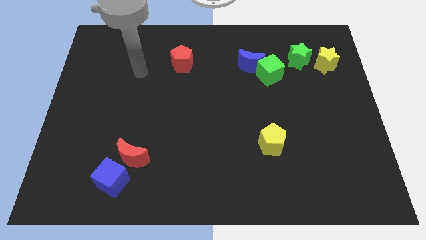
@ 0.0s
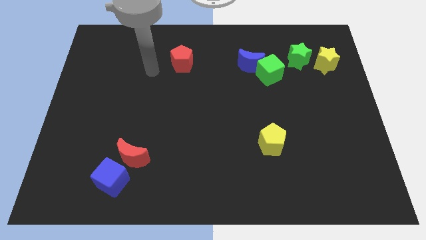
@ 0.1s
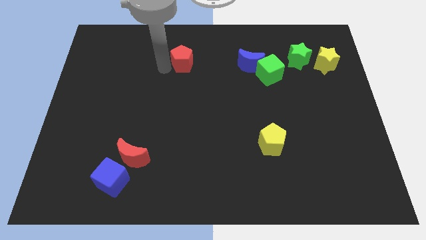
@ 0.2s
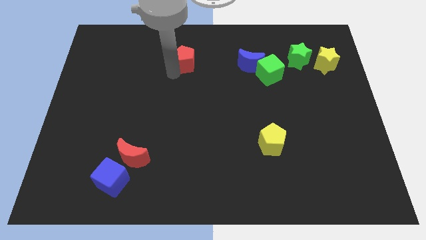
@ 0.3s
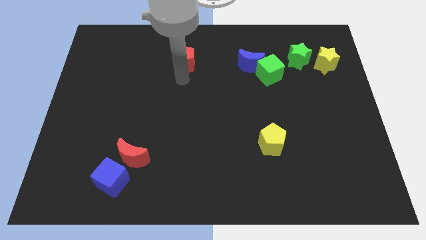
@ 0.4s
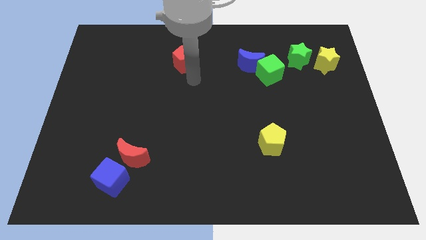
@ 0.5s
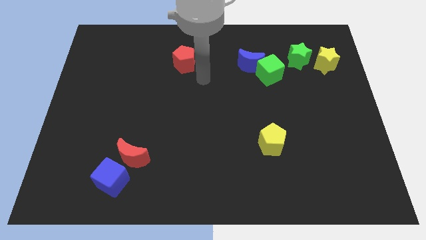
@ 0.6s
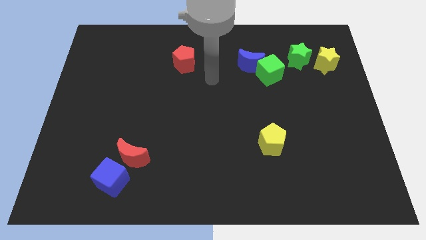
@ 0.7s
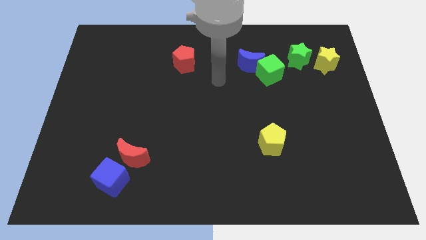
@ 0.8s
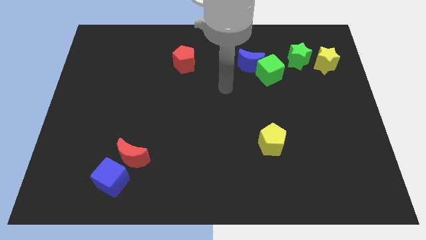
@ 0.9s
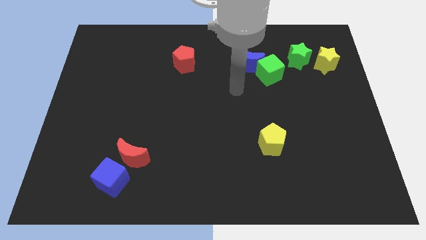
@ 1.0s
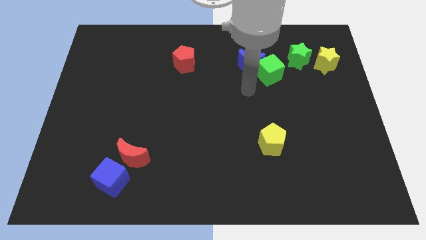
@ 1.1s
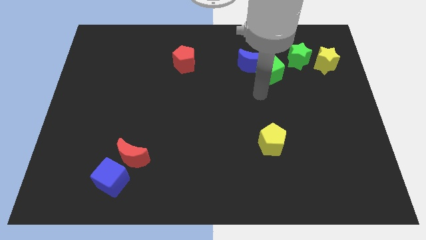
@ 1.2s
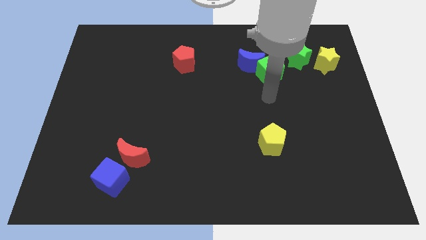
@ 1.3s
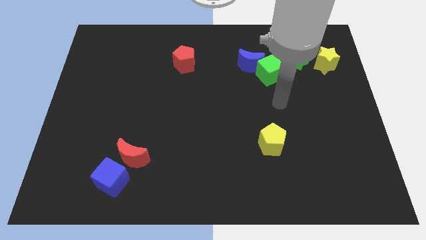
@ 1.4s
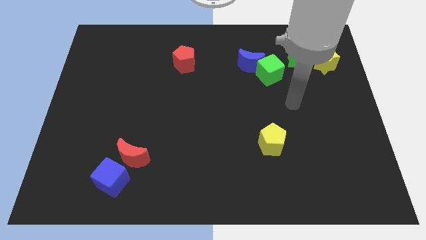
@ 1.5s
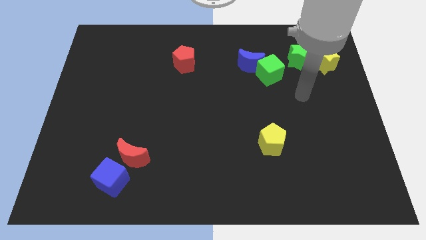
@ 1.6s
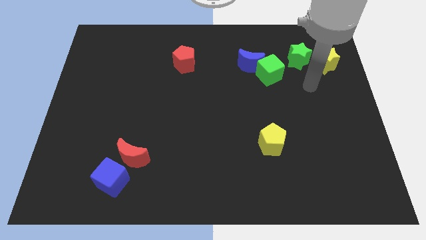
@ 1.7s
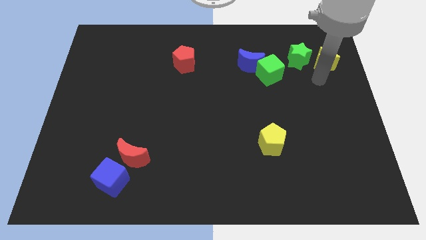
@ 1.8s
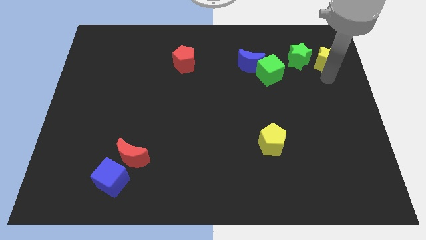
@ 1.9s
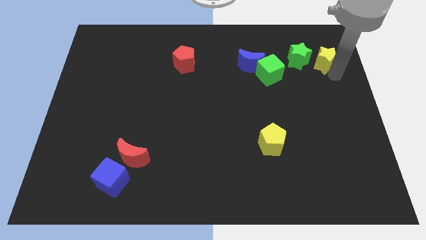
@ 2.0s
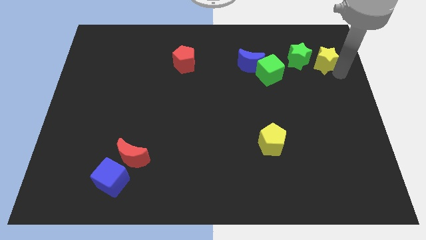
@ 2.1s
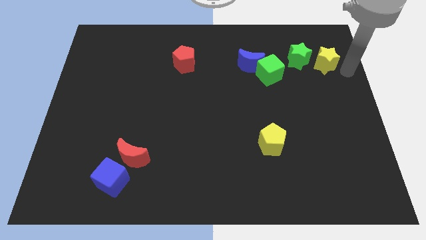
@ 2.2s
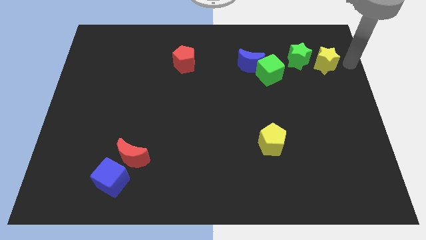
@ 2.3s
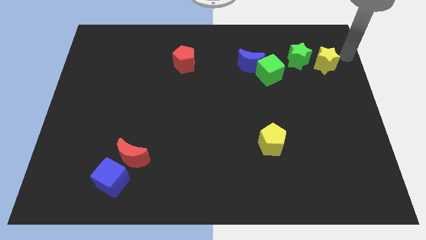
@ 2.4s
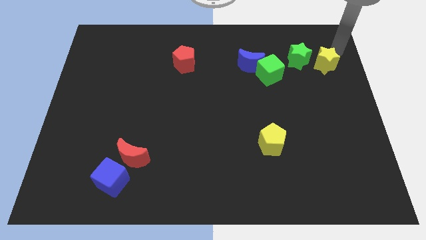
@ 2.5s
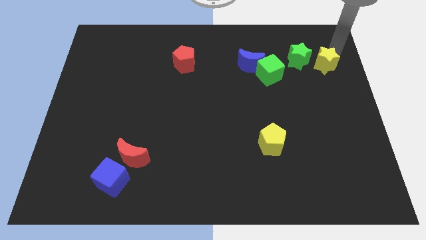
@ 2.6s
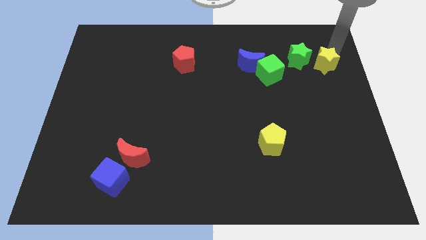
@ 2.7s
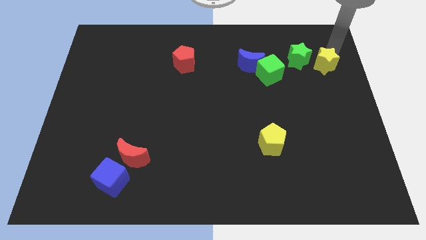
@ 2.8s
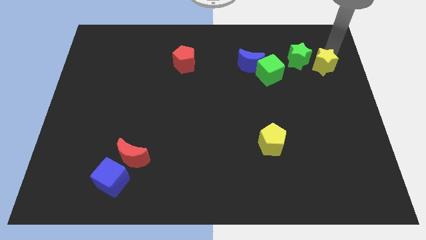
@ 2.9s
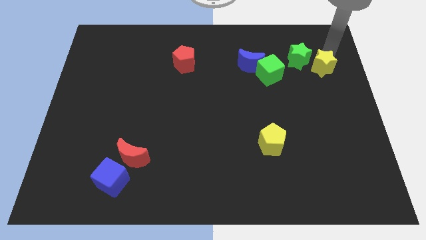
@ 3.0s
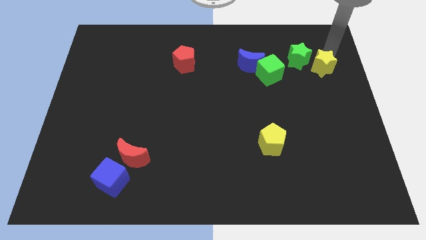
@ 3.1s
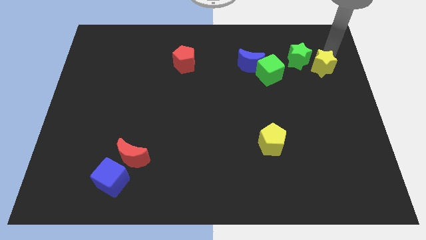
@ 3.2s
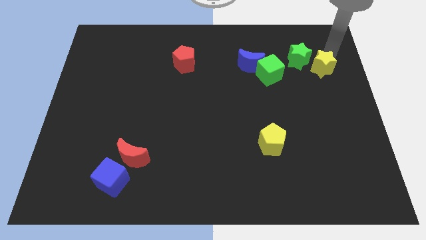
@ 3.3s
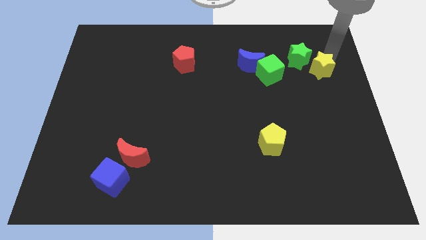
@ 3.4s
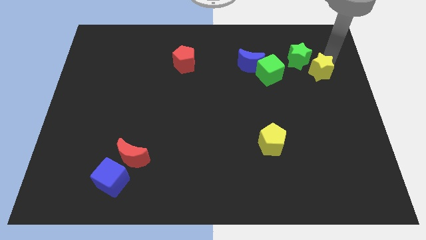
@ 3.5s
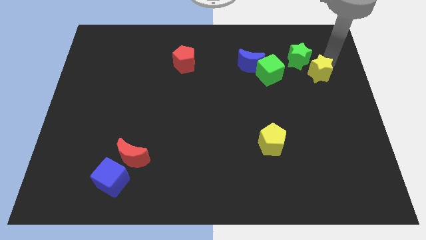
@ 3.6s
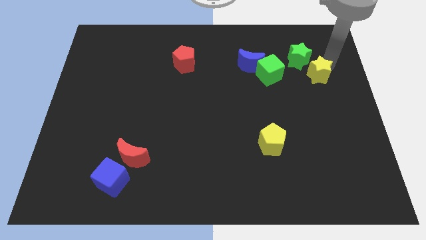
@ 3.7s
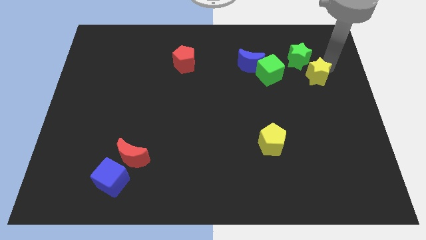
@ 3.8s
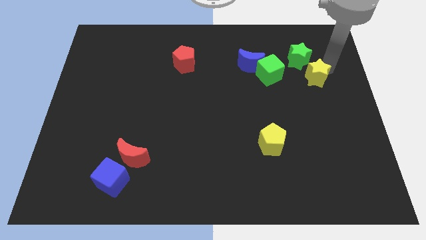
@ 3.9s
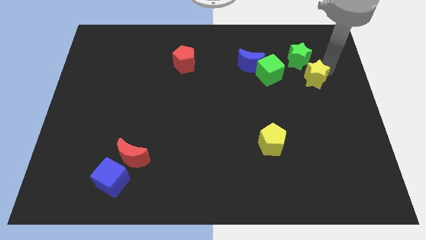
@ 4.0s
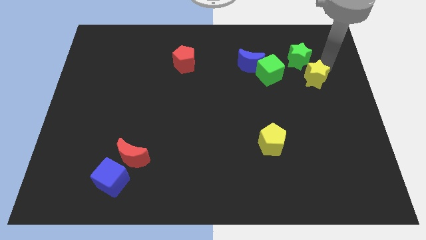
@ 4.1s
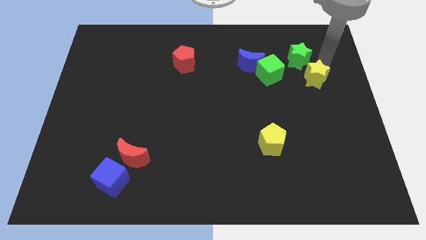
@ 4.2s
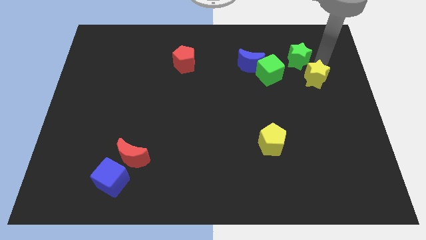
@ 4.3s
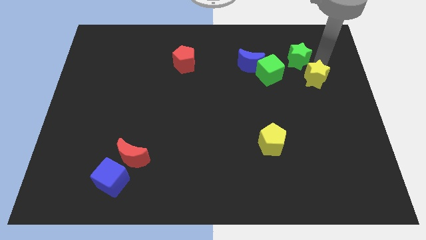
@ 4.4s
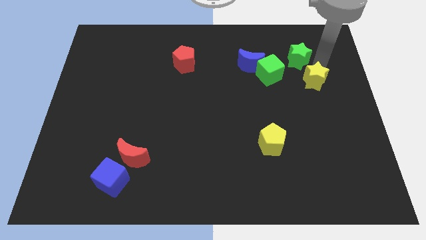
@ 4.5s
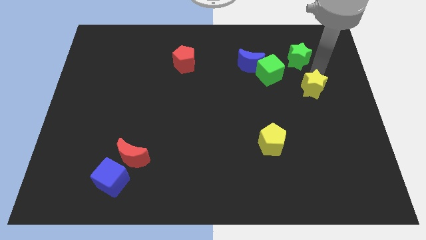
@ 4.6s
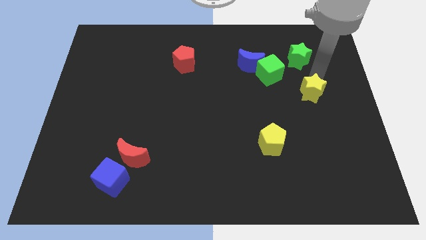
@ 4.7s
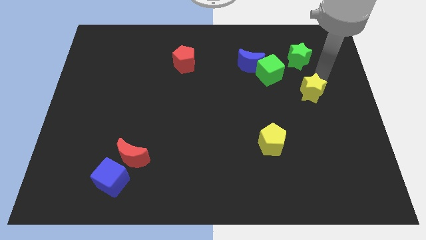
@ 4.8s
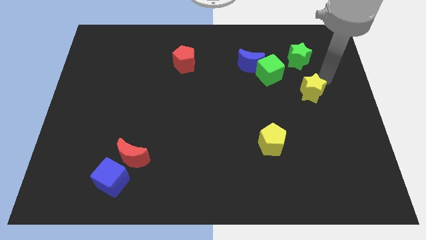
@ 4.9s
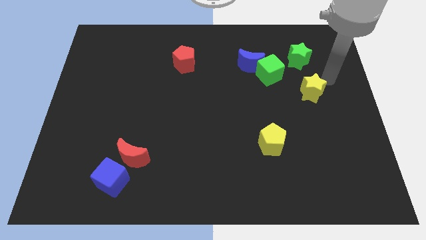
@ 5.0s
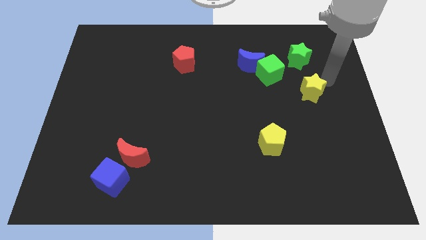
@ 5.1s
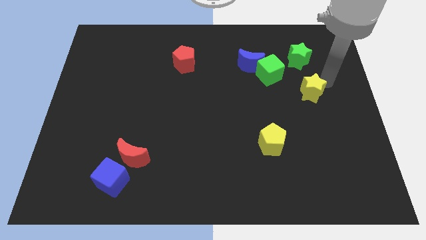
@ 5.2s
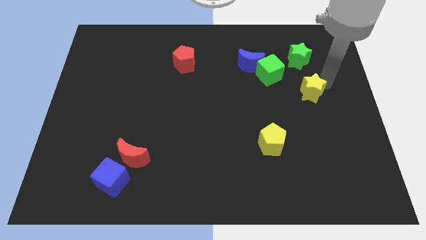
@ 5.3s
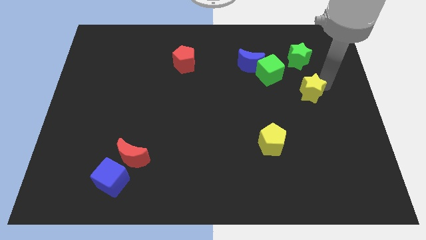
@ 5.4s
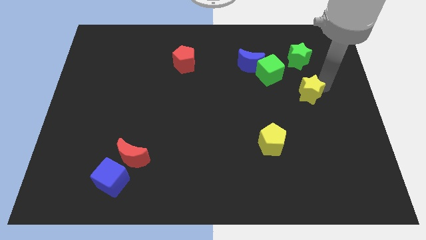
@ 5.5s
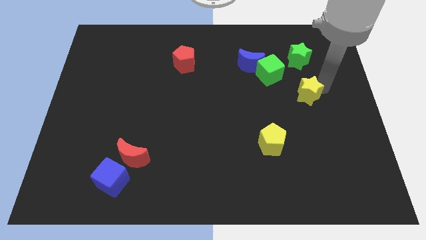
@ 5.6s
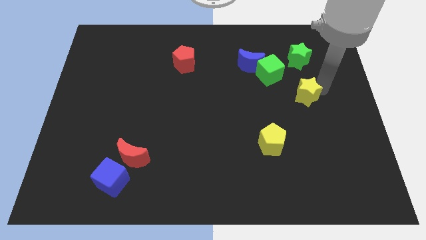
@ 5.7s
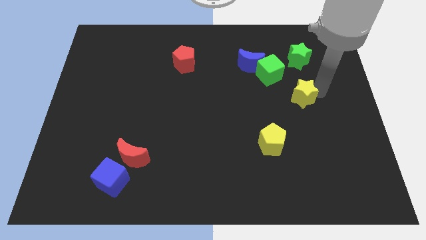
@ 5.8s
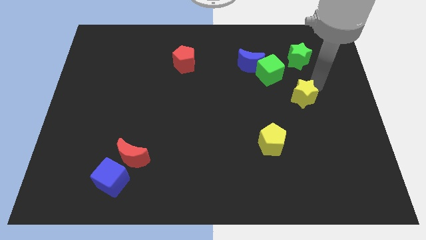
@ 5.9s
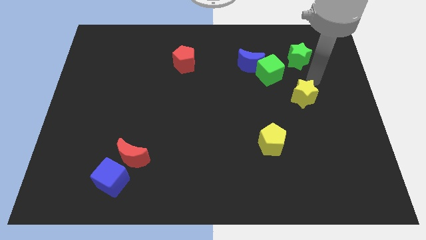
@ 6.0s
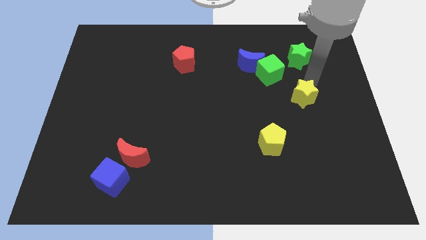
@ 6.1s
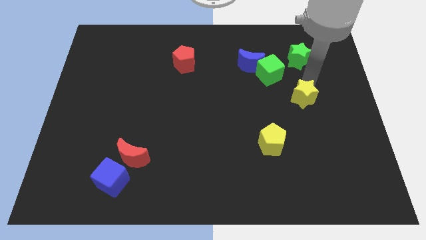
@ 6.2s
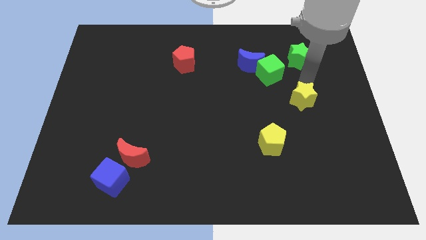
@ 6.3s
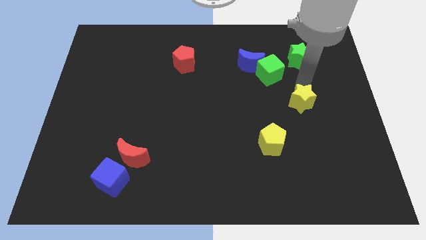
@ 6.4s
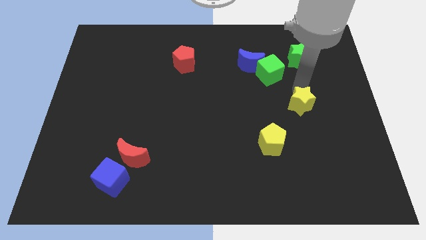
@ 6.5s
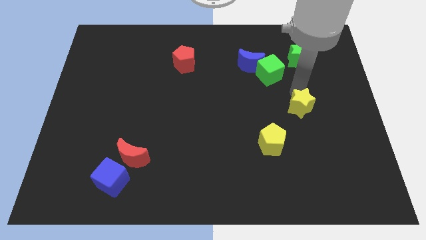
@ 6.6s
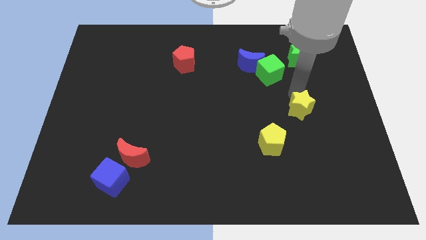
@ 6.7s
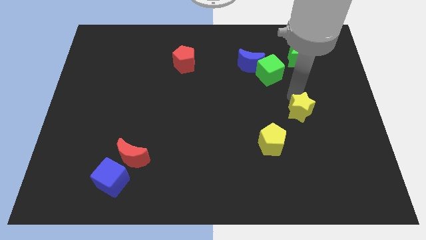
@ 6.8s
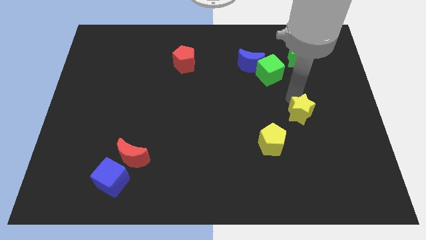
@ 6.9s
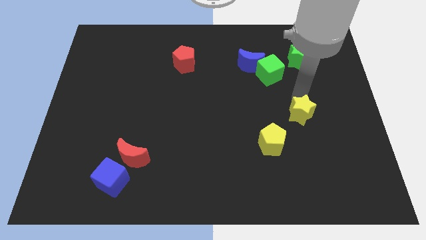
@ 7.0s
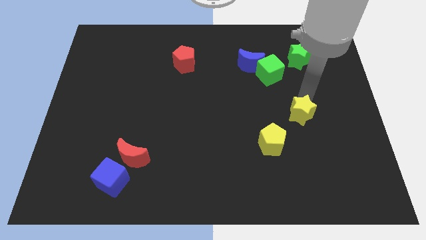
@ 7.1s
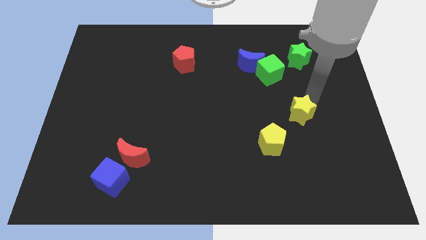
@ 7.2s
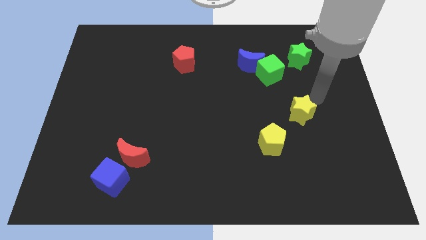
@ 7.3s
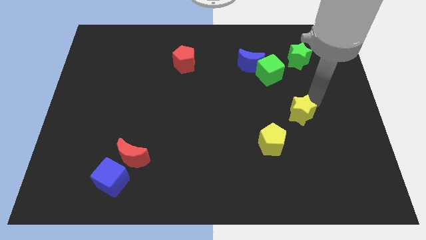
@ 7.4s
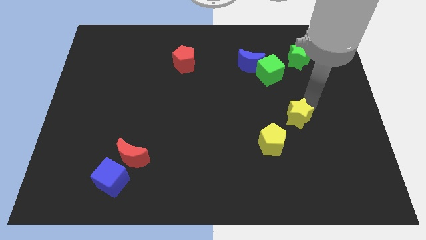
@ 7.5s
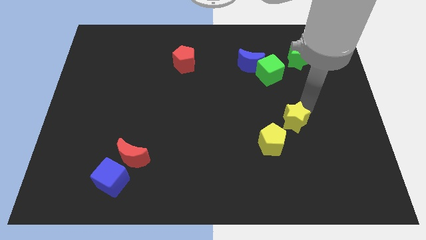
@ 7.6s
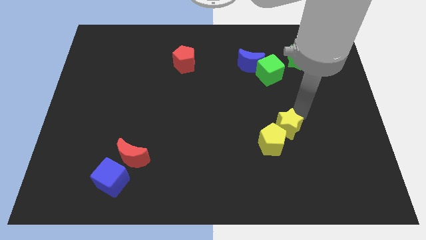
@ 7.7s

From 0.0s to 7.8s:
push the yellow star to the yellow pentagon
